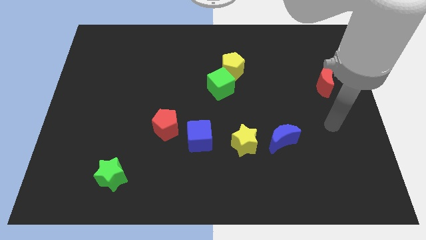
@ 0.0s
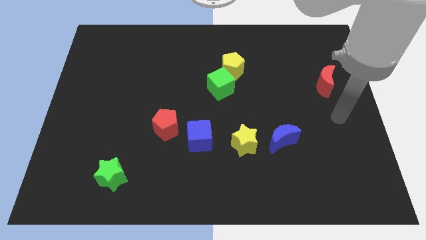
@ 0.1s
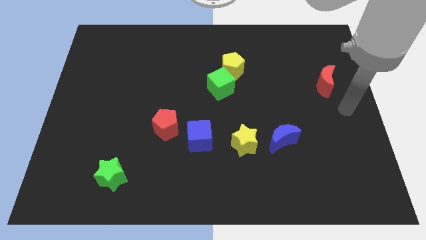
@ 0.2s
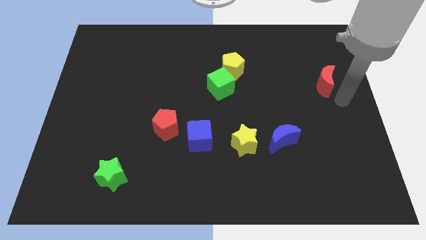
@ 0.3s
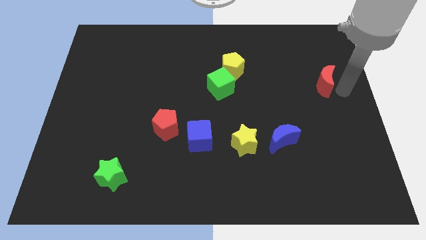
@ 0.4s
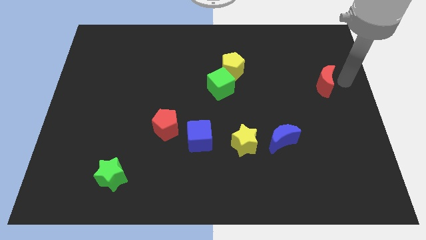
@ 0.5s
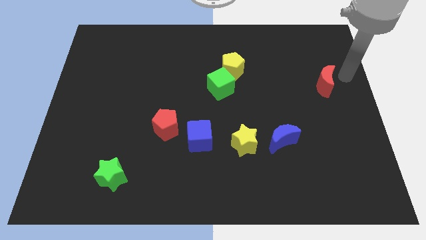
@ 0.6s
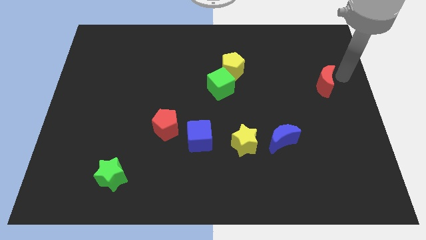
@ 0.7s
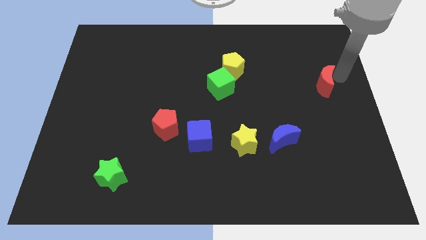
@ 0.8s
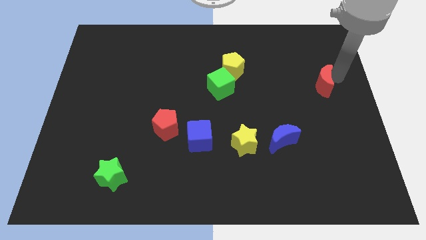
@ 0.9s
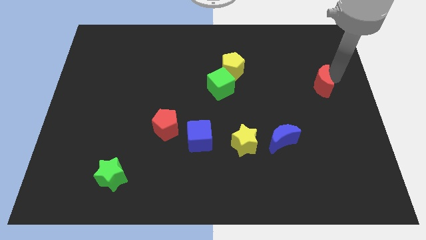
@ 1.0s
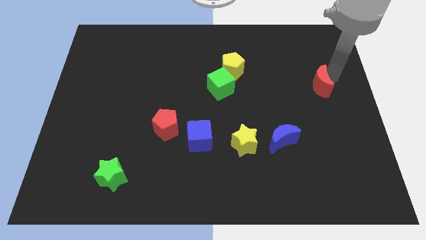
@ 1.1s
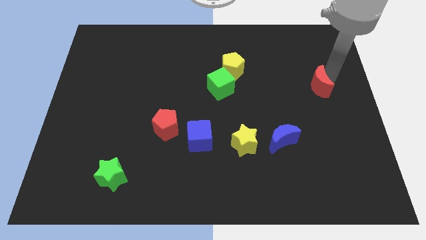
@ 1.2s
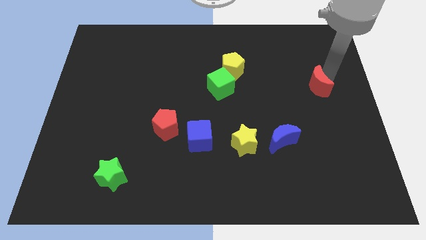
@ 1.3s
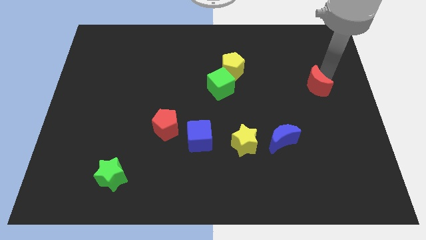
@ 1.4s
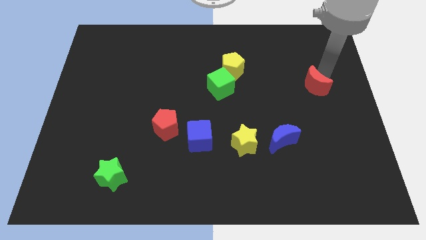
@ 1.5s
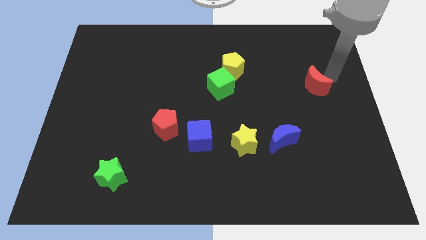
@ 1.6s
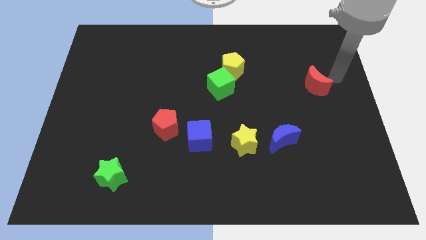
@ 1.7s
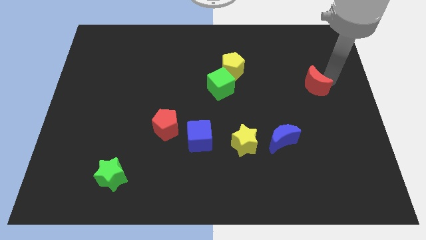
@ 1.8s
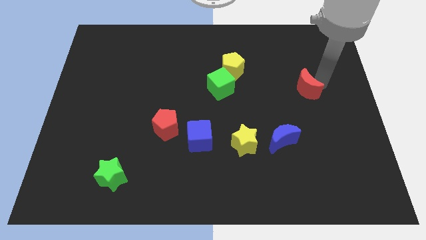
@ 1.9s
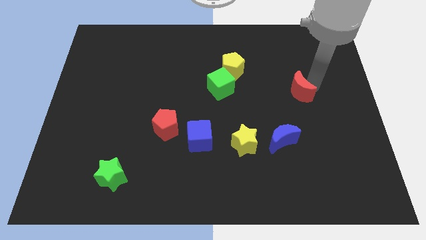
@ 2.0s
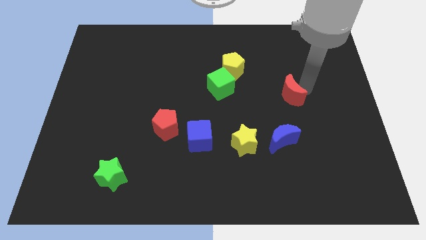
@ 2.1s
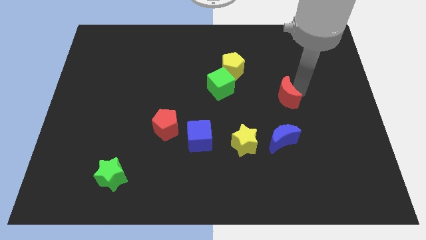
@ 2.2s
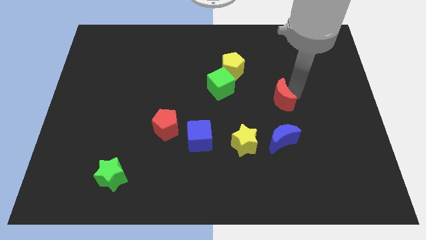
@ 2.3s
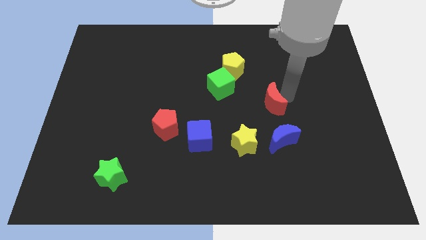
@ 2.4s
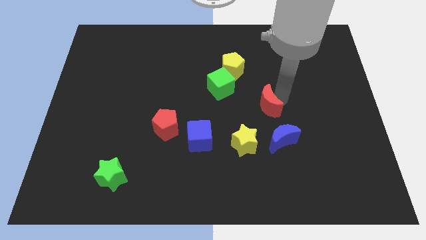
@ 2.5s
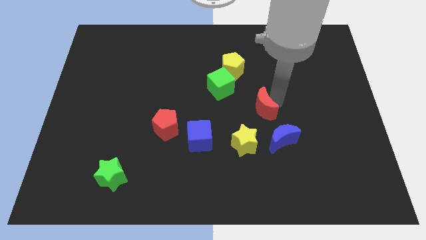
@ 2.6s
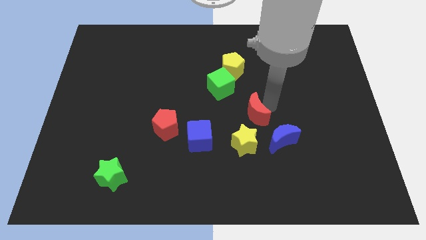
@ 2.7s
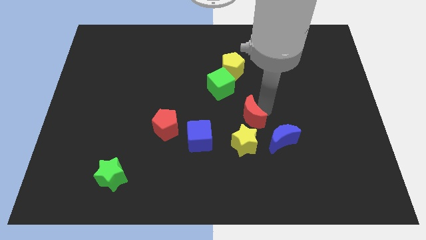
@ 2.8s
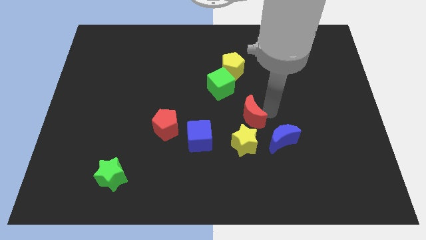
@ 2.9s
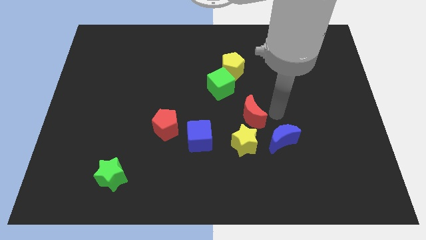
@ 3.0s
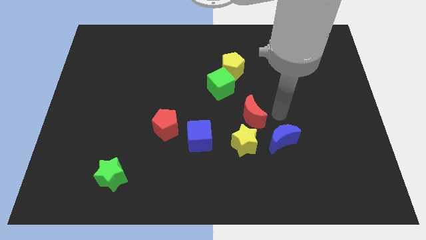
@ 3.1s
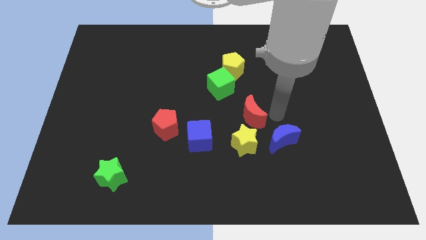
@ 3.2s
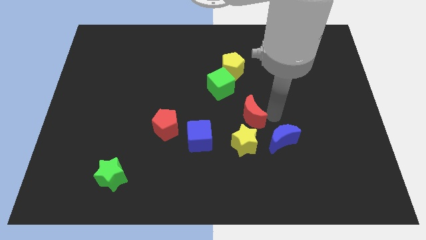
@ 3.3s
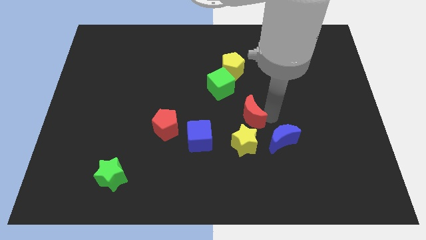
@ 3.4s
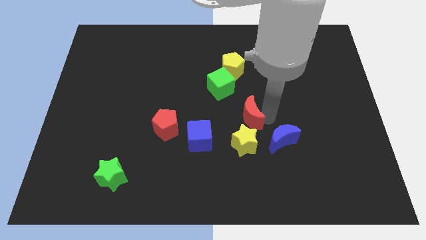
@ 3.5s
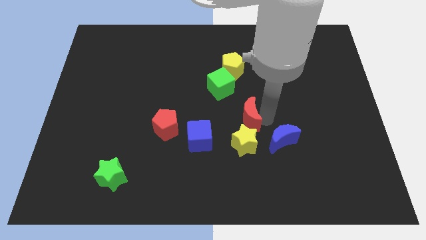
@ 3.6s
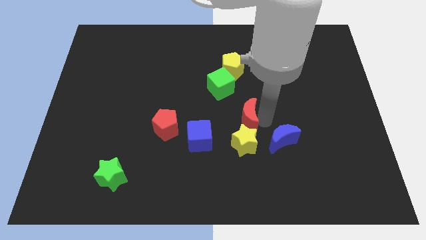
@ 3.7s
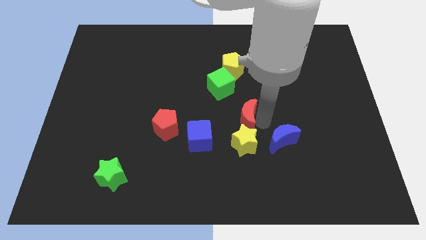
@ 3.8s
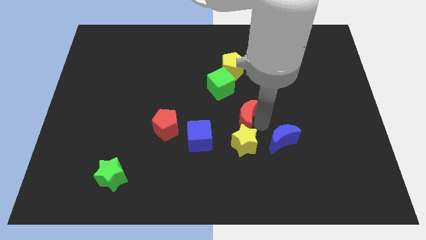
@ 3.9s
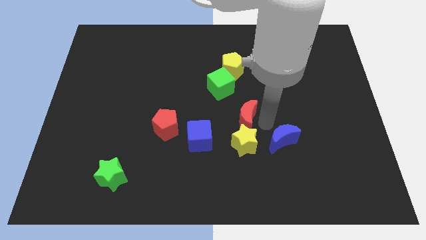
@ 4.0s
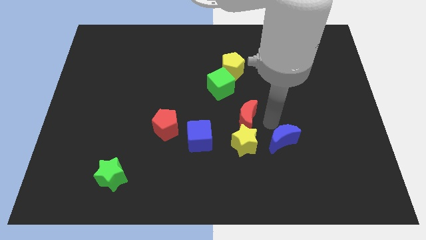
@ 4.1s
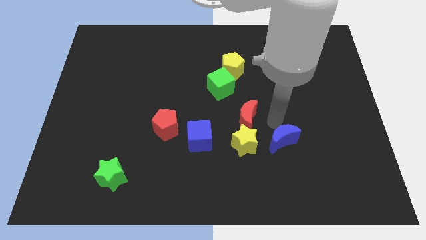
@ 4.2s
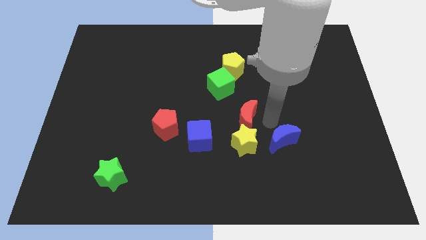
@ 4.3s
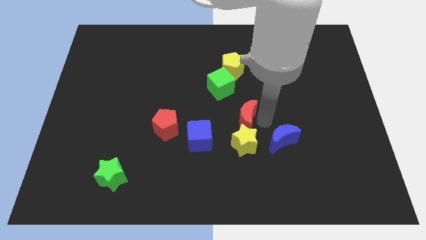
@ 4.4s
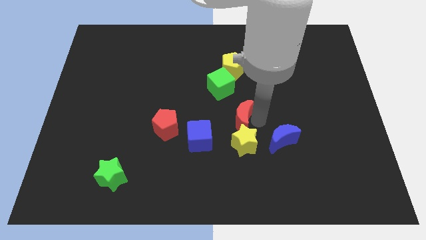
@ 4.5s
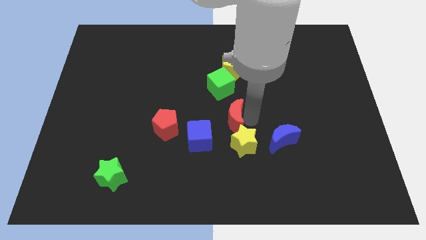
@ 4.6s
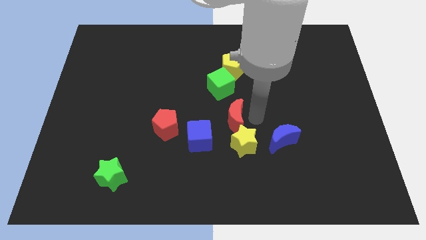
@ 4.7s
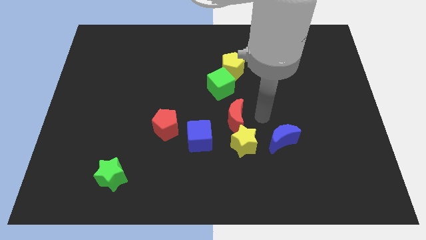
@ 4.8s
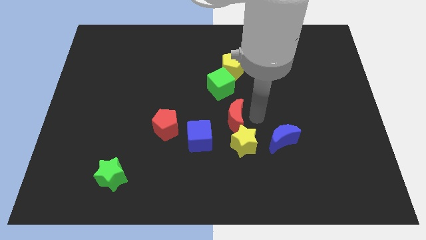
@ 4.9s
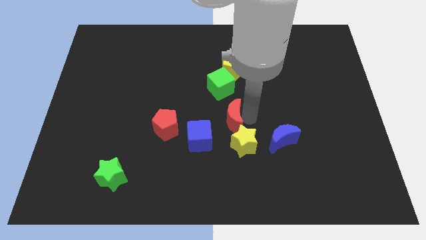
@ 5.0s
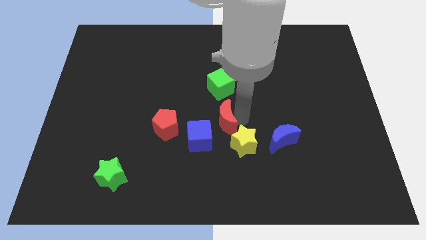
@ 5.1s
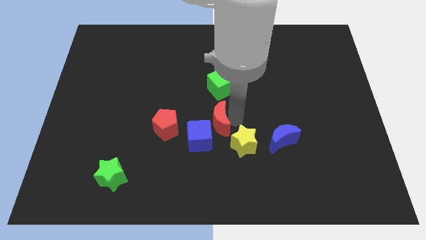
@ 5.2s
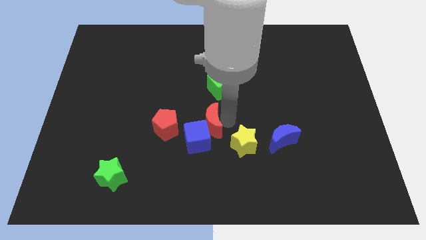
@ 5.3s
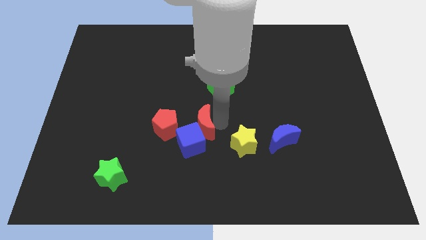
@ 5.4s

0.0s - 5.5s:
put the red moon just left of the yellow star

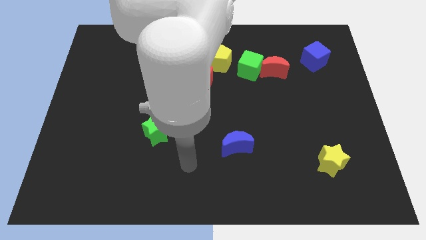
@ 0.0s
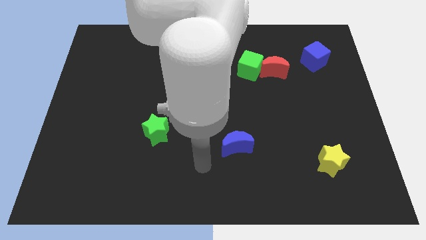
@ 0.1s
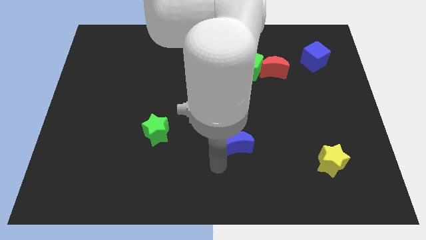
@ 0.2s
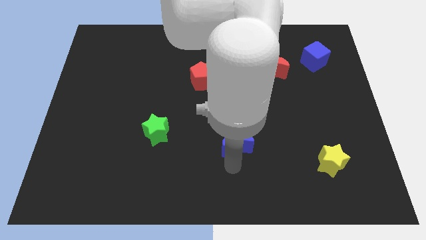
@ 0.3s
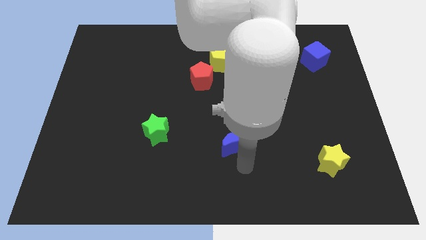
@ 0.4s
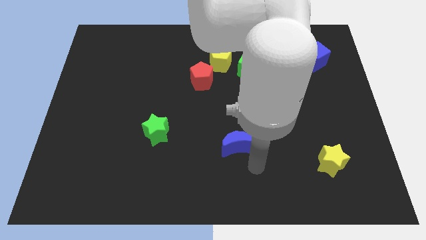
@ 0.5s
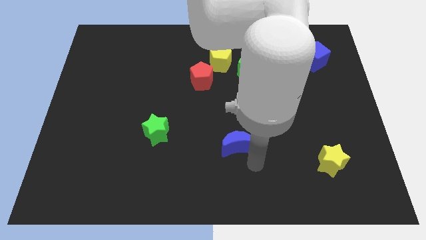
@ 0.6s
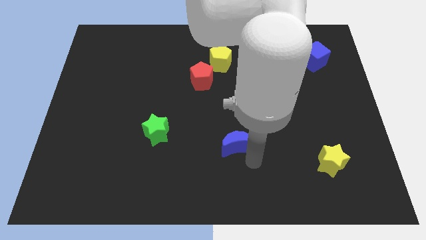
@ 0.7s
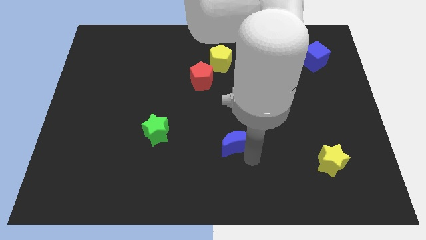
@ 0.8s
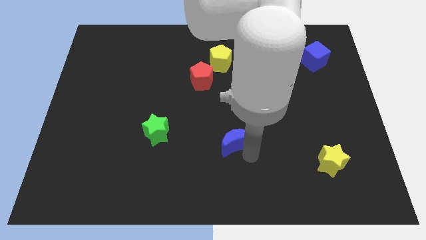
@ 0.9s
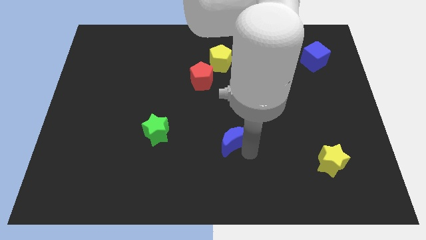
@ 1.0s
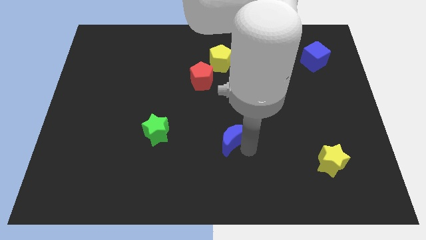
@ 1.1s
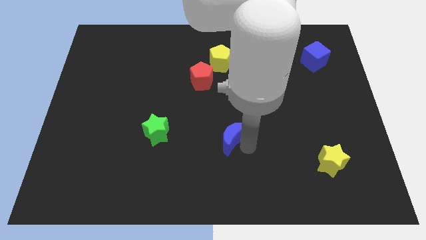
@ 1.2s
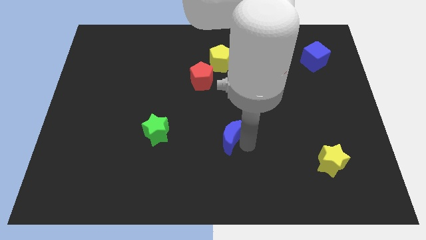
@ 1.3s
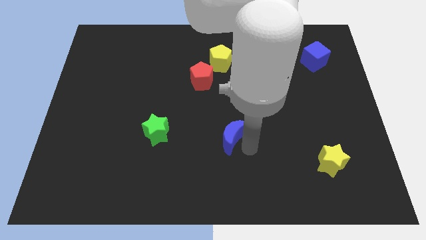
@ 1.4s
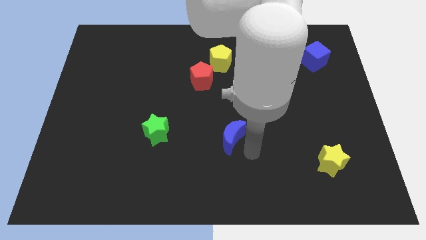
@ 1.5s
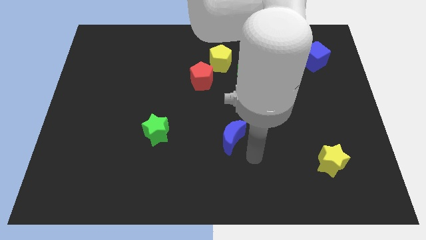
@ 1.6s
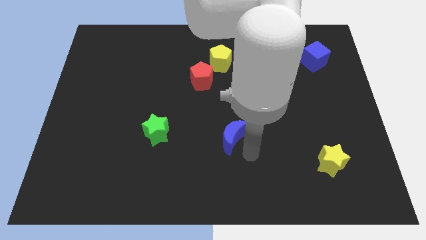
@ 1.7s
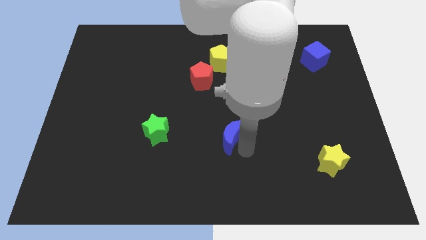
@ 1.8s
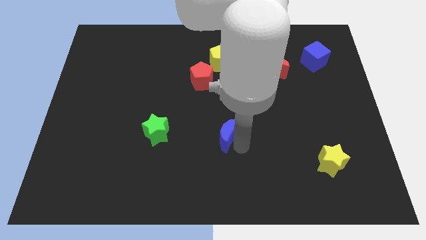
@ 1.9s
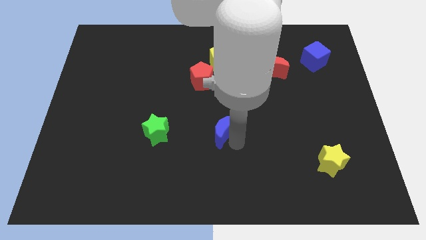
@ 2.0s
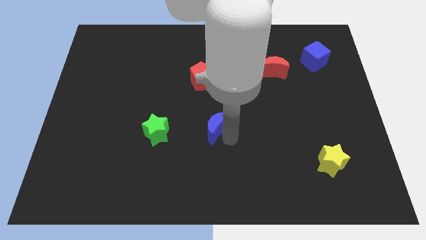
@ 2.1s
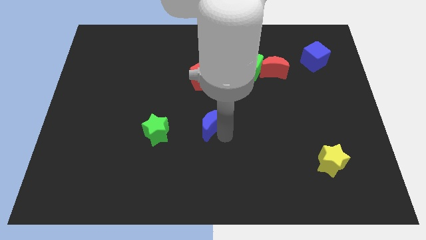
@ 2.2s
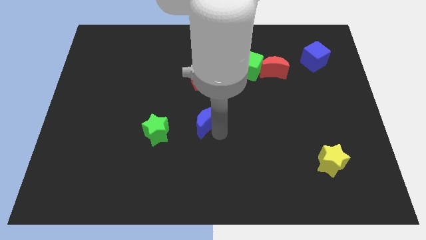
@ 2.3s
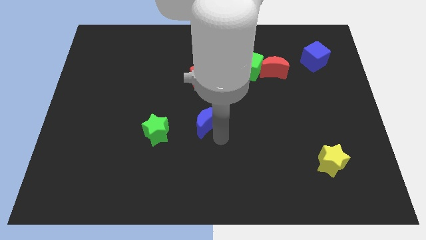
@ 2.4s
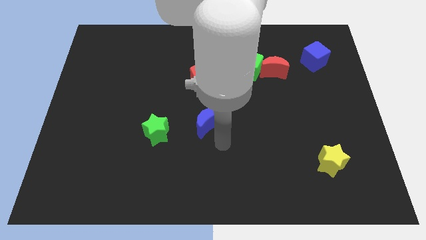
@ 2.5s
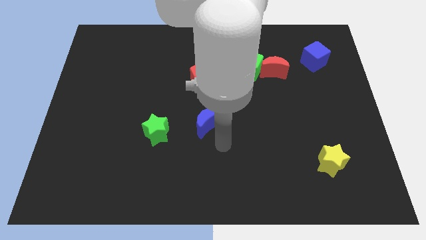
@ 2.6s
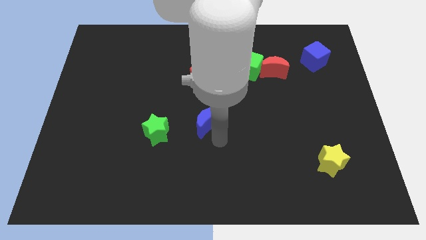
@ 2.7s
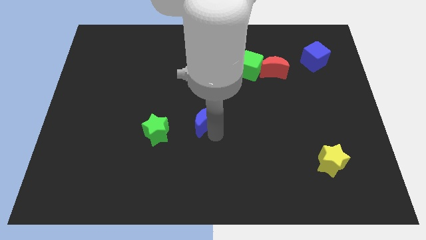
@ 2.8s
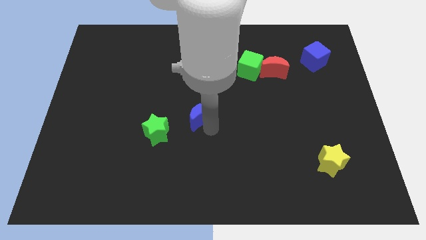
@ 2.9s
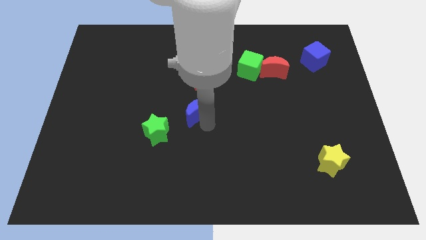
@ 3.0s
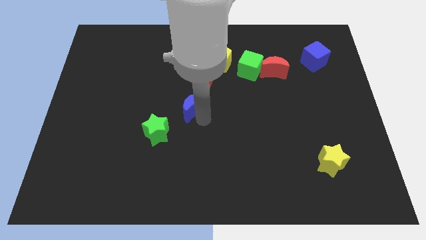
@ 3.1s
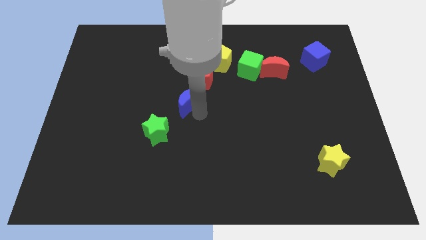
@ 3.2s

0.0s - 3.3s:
slide the blue moon diagonally down and to the left of the red pentagon
